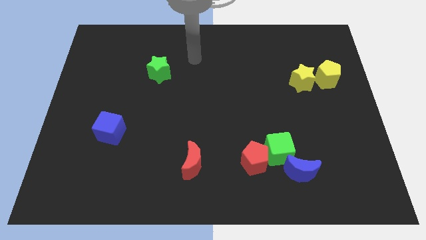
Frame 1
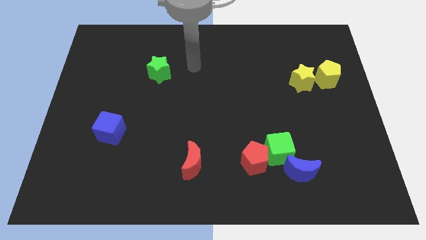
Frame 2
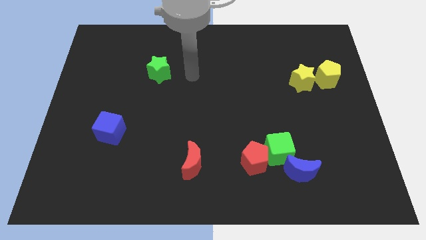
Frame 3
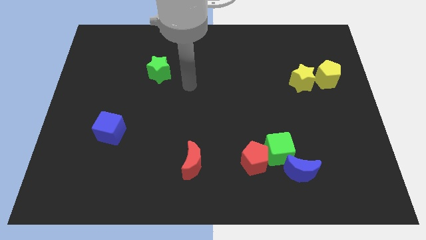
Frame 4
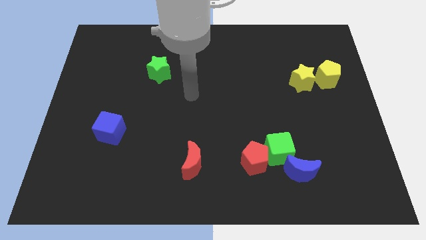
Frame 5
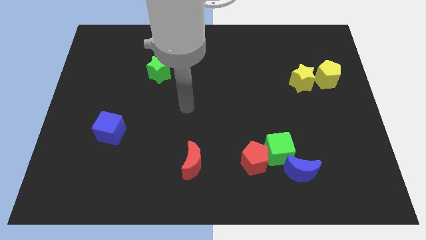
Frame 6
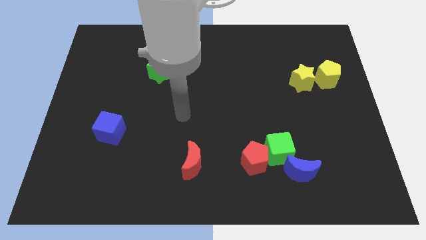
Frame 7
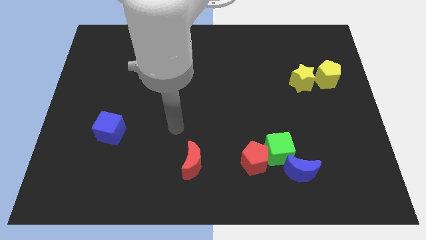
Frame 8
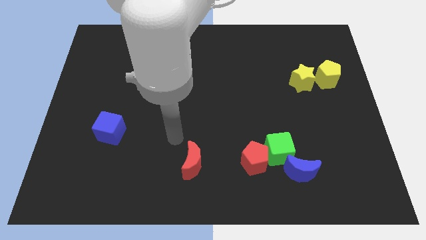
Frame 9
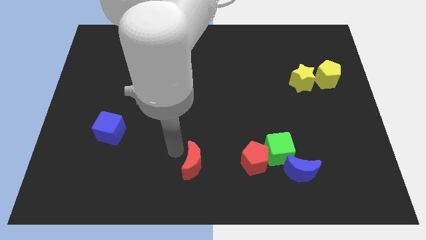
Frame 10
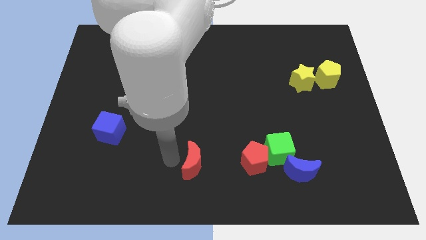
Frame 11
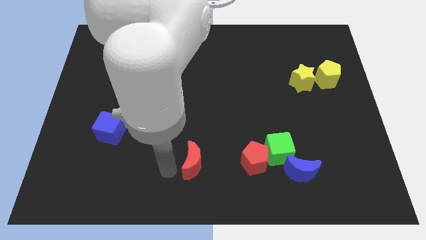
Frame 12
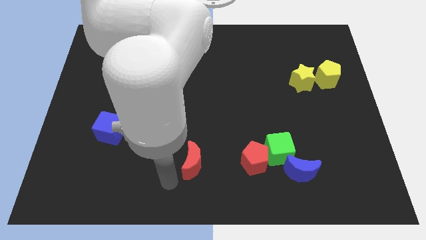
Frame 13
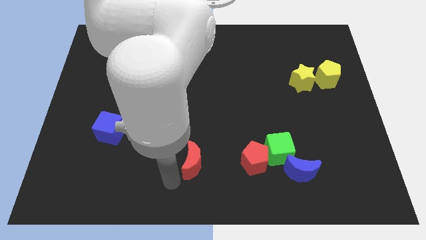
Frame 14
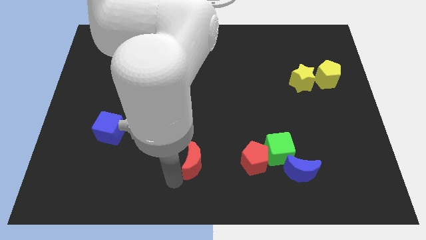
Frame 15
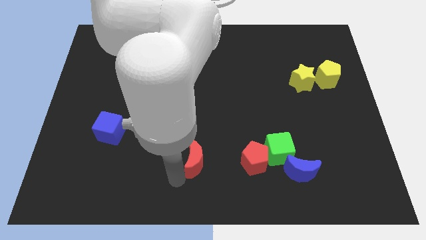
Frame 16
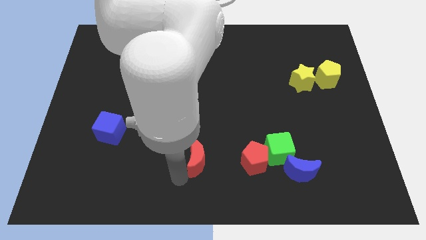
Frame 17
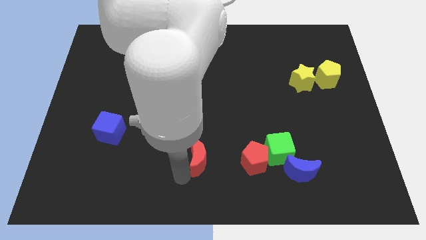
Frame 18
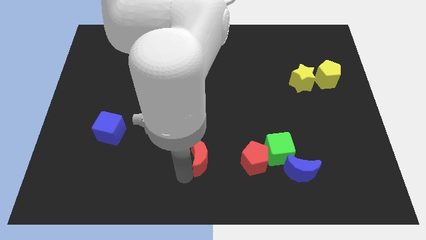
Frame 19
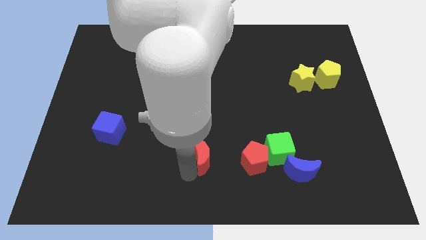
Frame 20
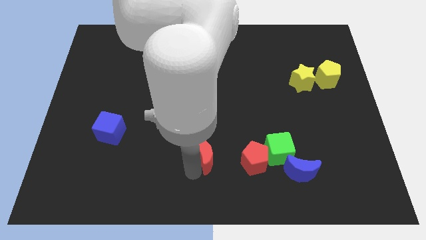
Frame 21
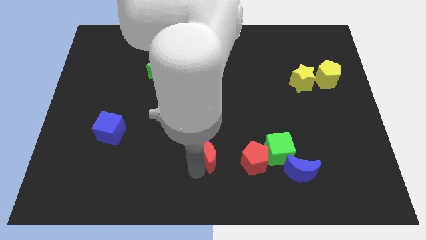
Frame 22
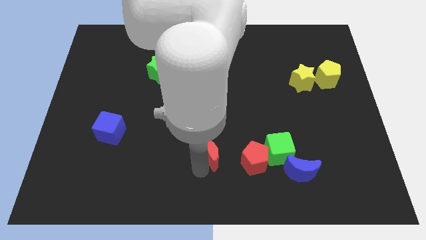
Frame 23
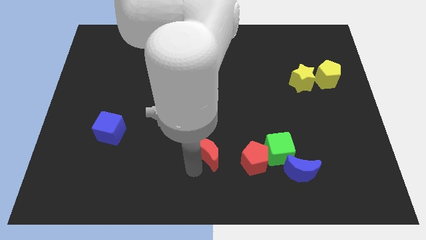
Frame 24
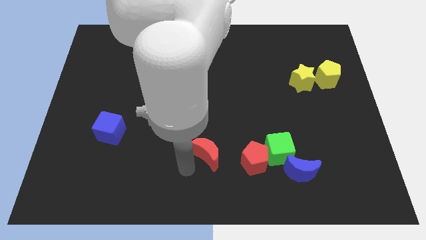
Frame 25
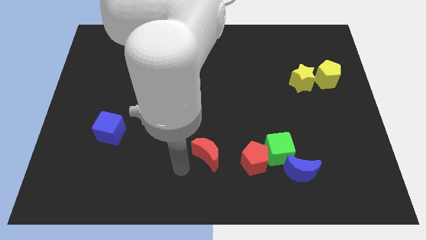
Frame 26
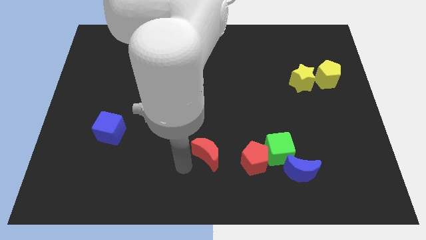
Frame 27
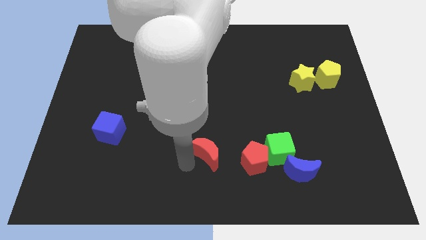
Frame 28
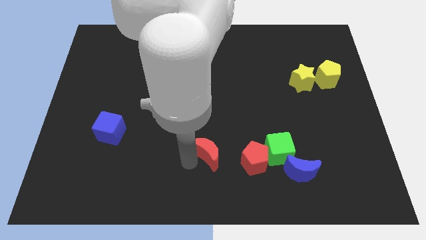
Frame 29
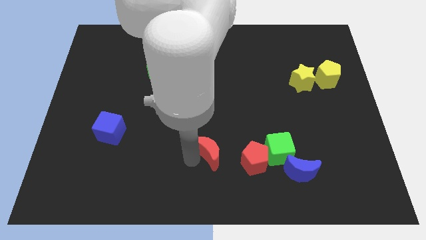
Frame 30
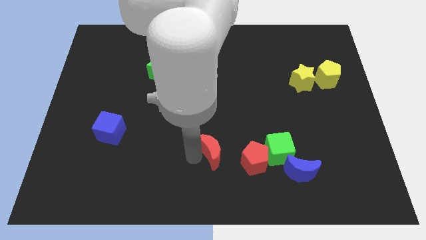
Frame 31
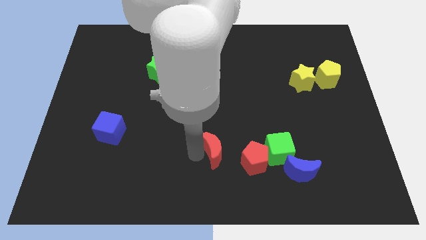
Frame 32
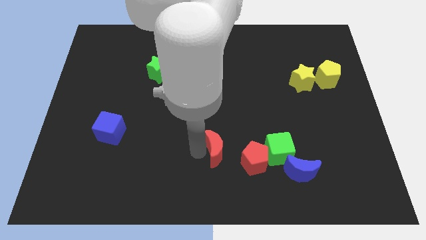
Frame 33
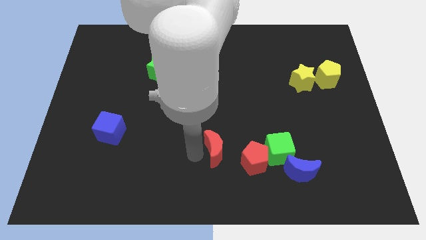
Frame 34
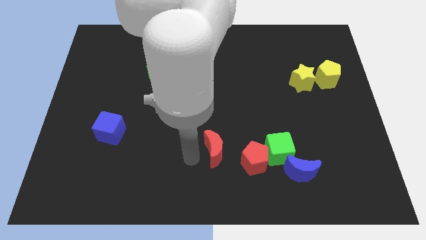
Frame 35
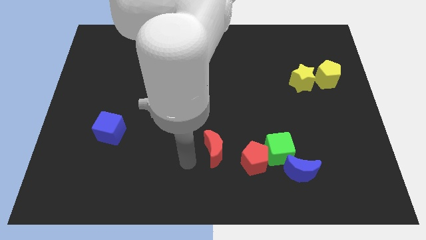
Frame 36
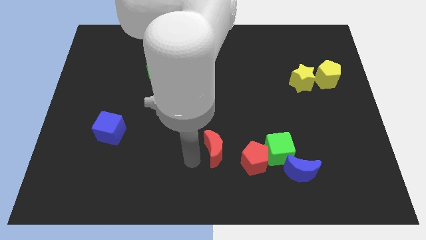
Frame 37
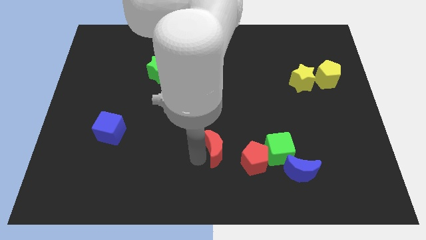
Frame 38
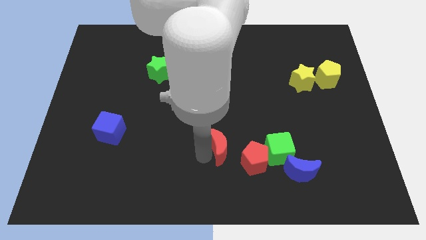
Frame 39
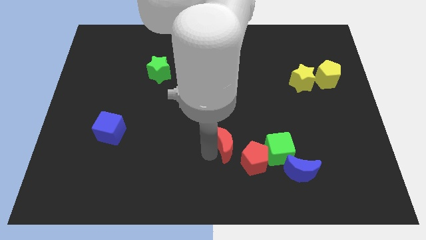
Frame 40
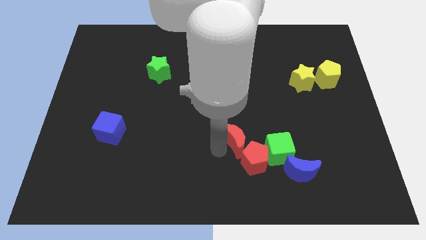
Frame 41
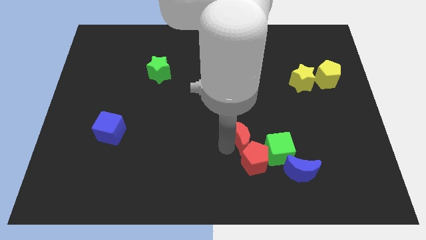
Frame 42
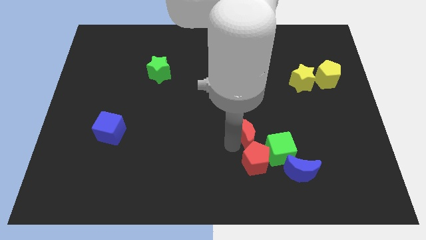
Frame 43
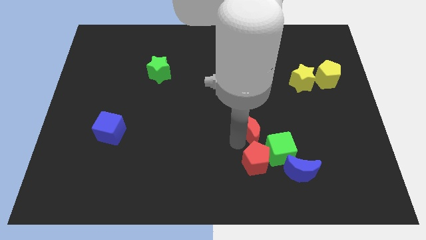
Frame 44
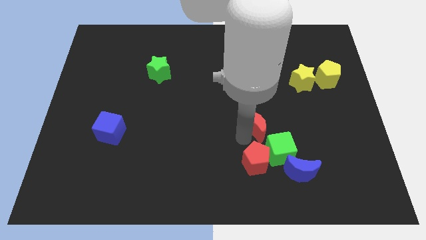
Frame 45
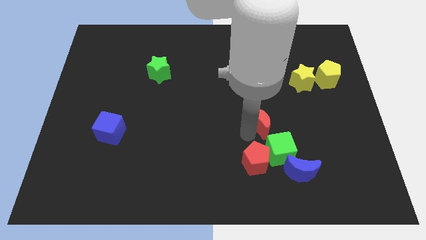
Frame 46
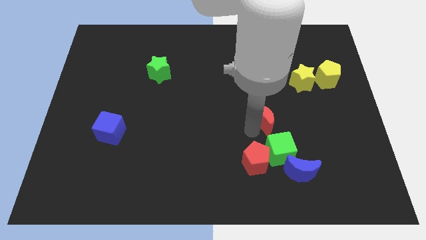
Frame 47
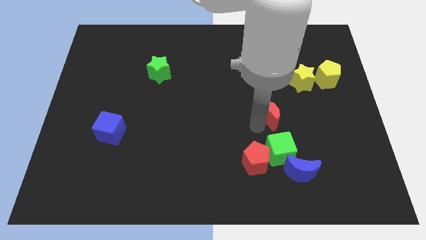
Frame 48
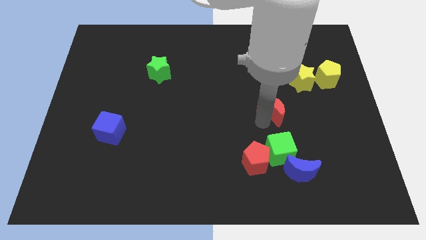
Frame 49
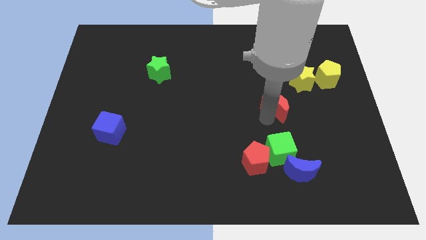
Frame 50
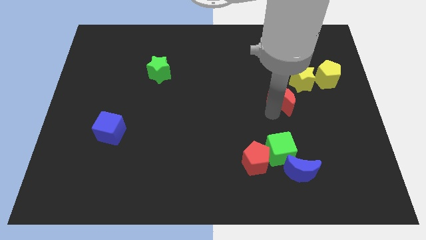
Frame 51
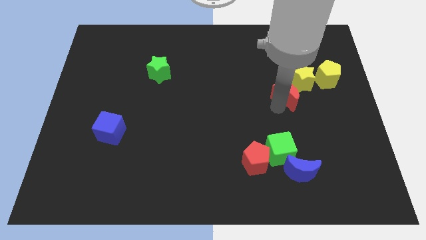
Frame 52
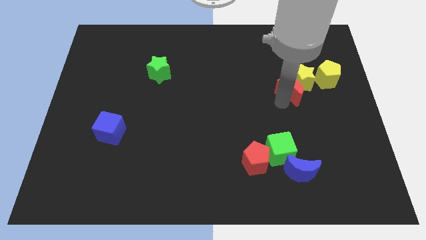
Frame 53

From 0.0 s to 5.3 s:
move the red moon to the yellow star

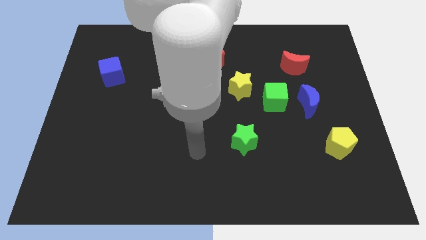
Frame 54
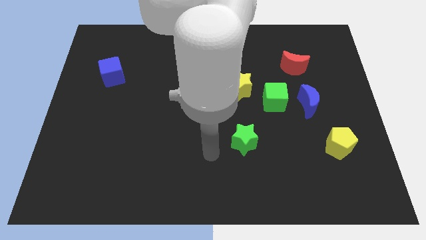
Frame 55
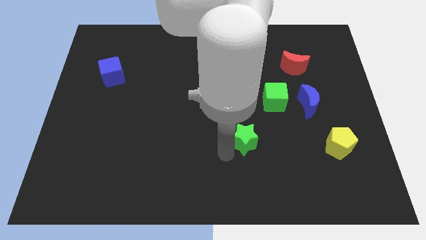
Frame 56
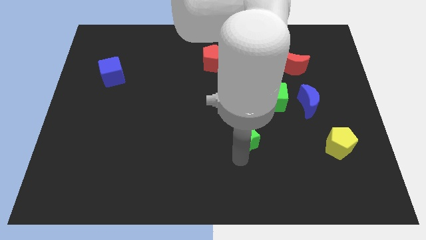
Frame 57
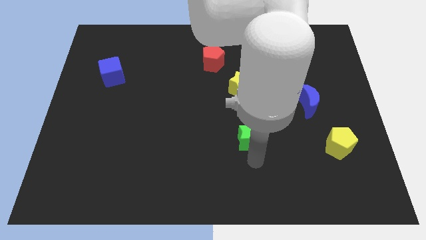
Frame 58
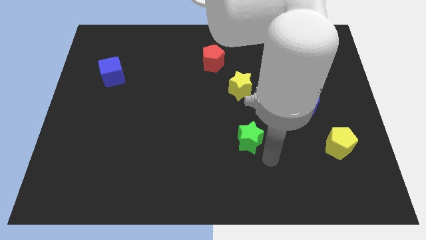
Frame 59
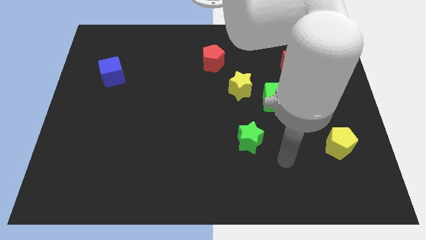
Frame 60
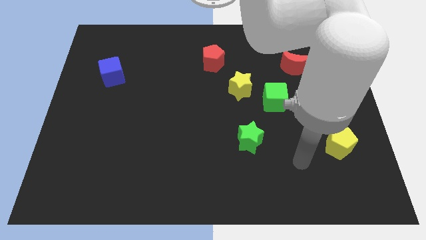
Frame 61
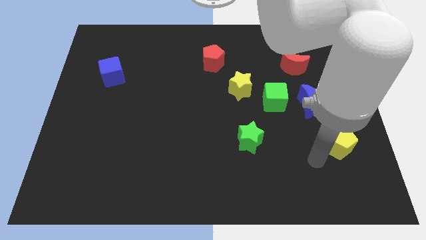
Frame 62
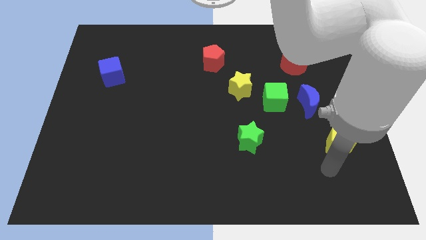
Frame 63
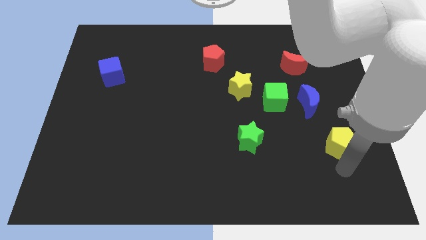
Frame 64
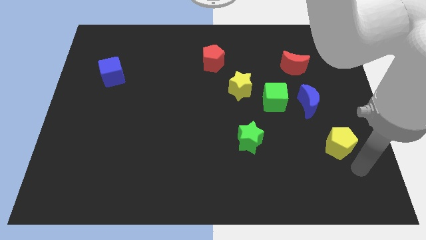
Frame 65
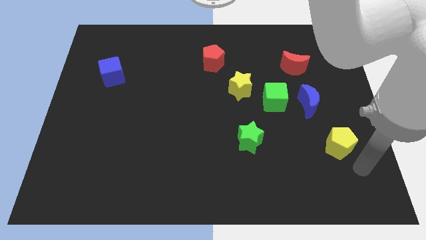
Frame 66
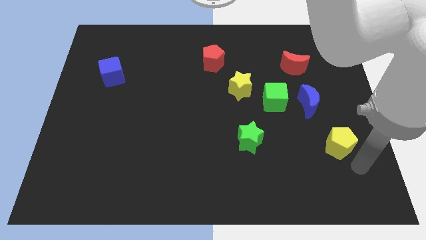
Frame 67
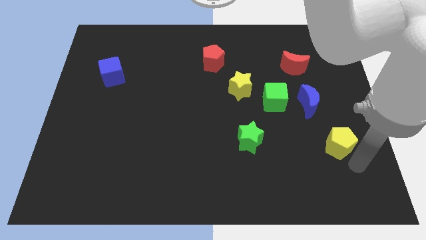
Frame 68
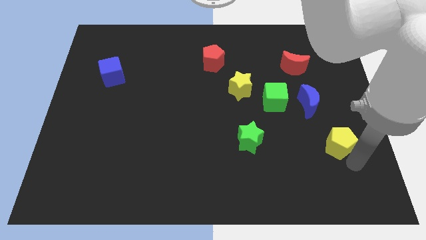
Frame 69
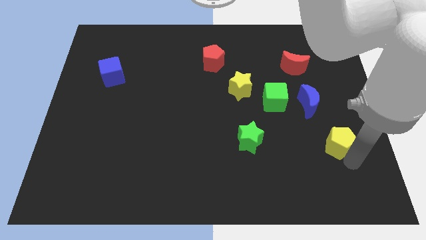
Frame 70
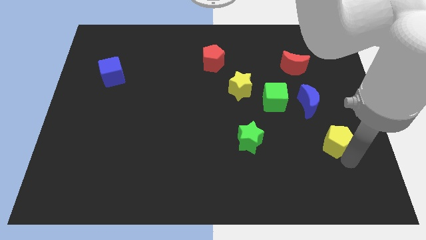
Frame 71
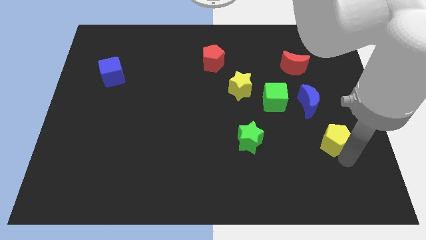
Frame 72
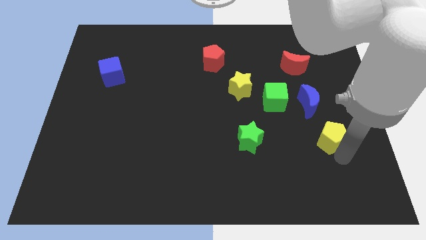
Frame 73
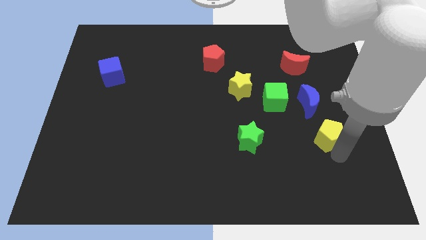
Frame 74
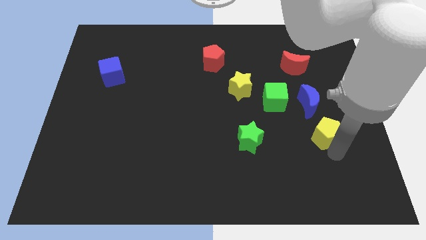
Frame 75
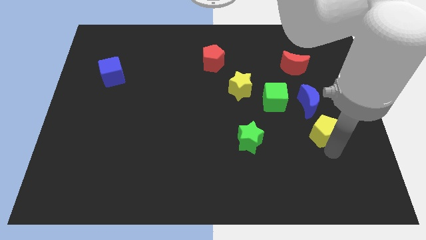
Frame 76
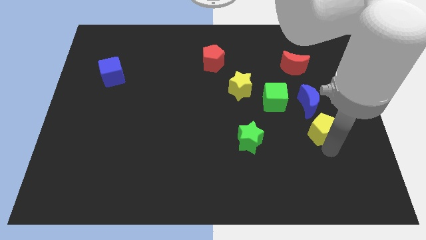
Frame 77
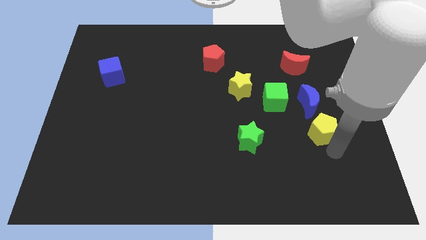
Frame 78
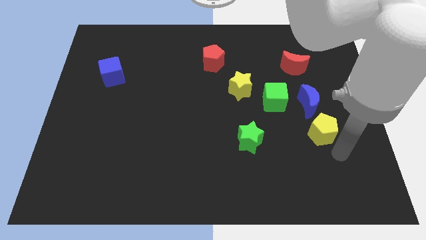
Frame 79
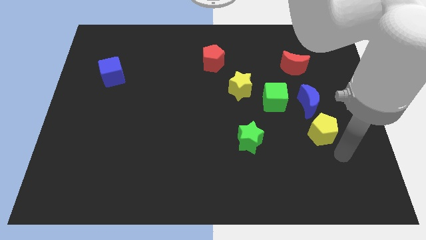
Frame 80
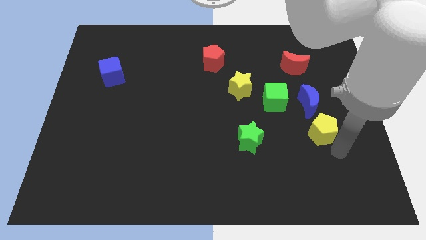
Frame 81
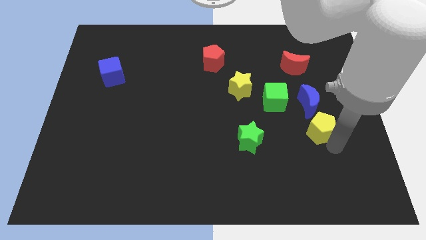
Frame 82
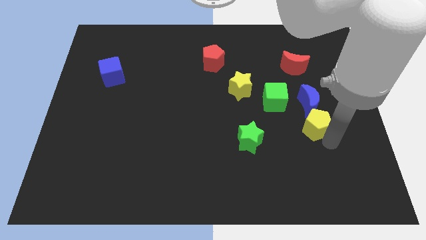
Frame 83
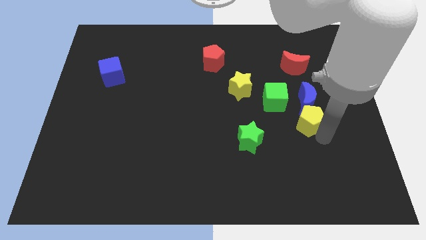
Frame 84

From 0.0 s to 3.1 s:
move the yellow pentagon to the blue moon
